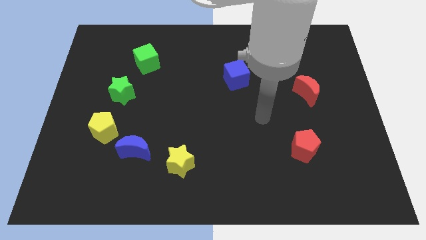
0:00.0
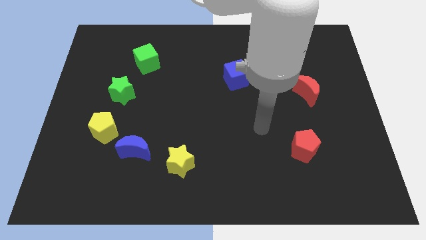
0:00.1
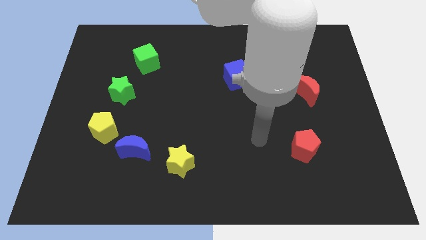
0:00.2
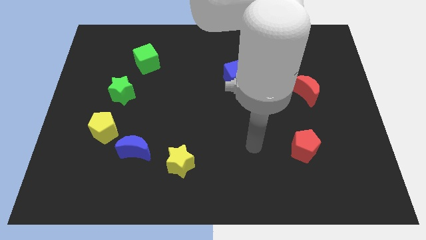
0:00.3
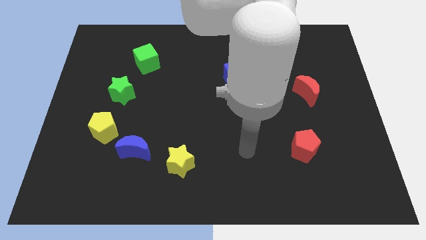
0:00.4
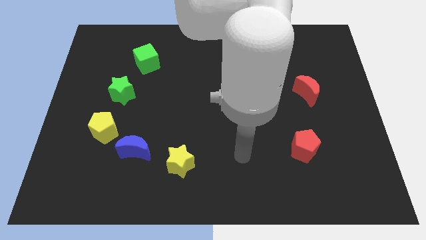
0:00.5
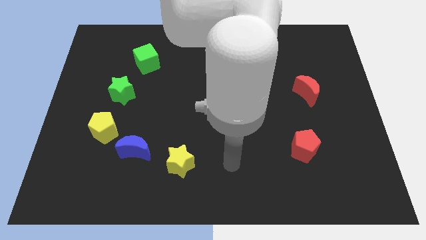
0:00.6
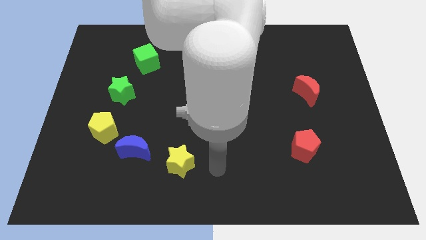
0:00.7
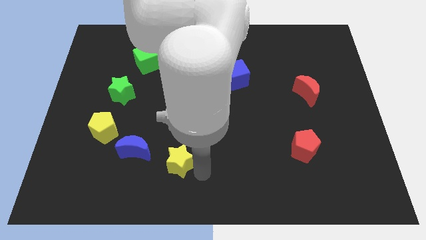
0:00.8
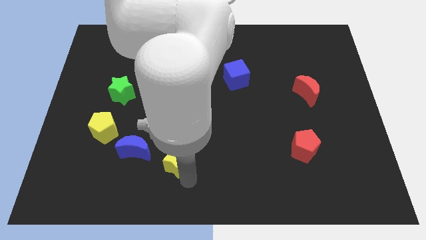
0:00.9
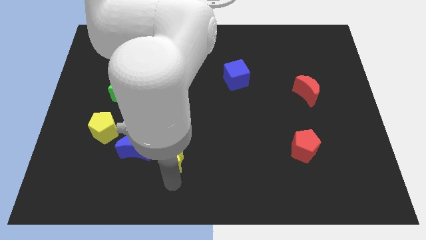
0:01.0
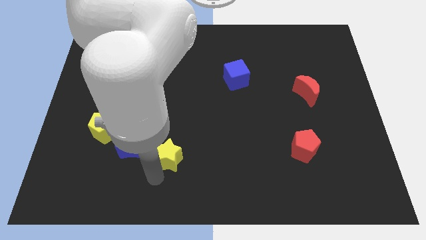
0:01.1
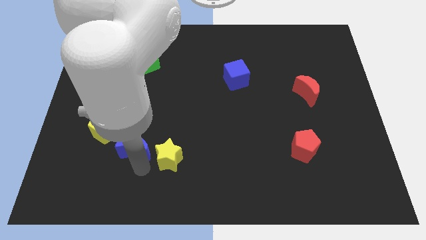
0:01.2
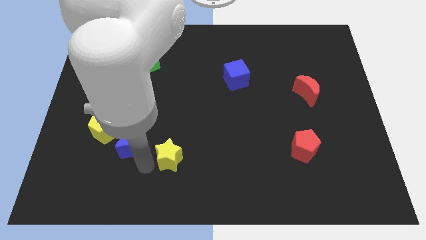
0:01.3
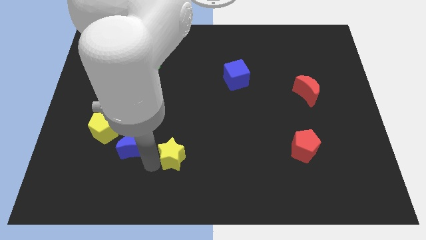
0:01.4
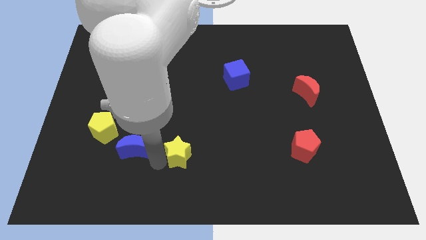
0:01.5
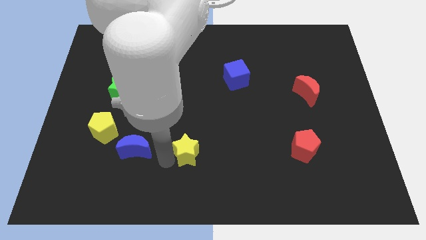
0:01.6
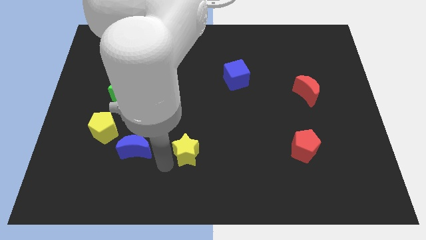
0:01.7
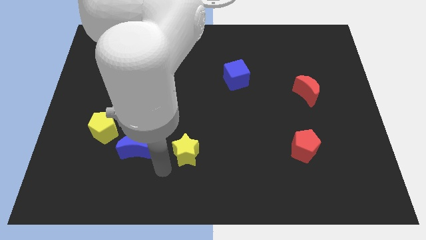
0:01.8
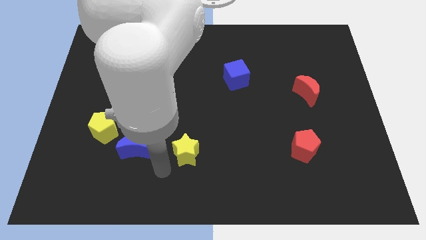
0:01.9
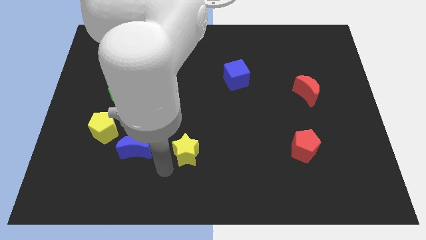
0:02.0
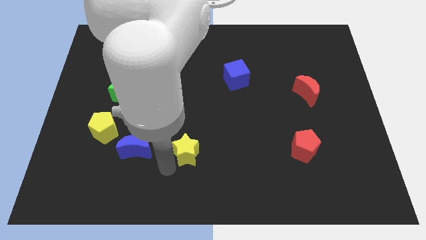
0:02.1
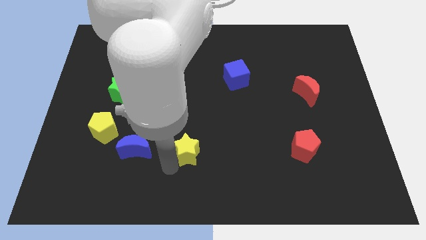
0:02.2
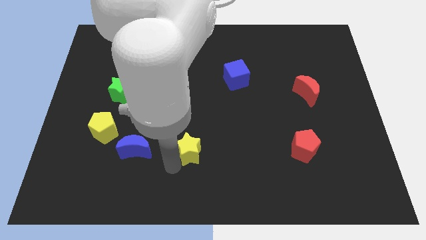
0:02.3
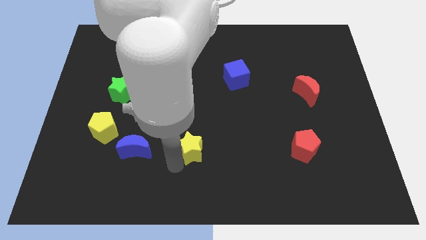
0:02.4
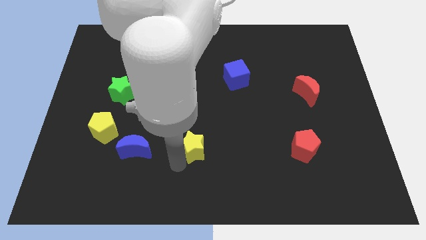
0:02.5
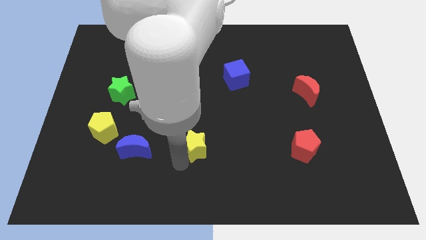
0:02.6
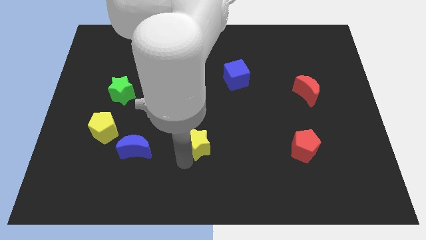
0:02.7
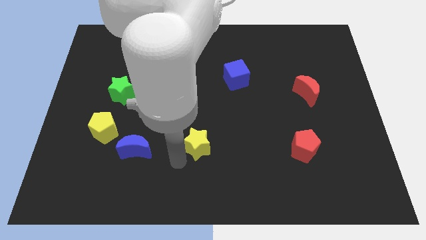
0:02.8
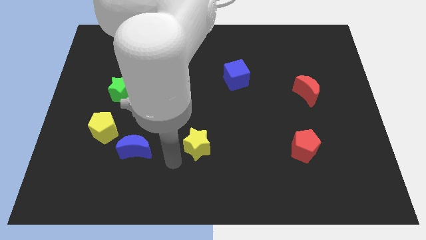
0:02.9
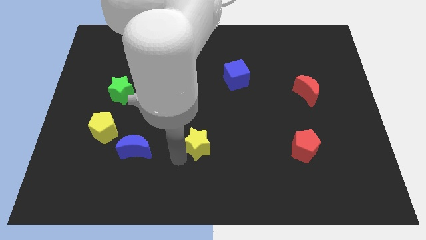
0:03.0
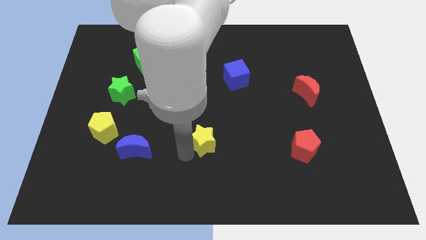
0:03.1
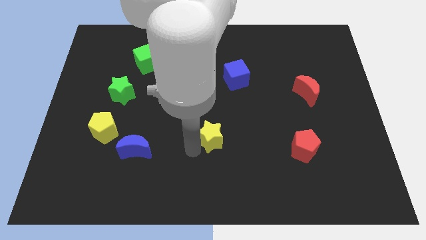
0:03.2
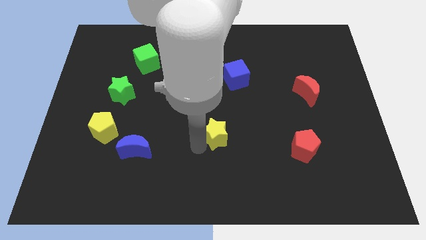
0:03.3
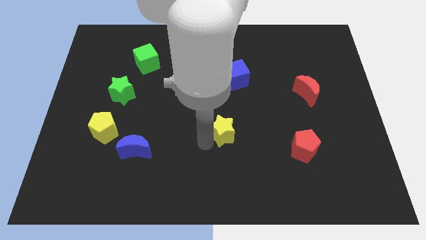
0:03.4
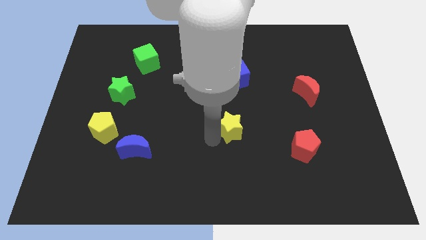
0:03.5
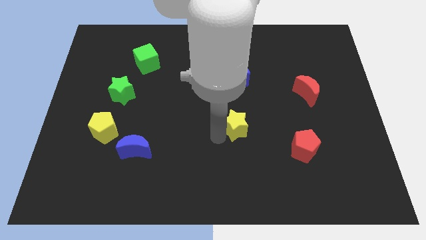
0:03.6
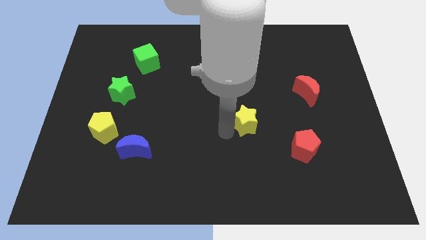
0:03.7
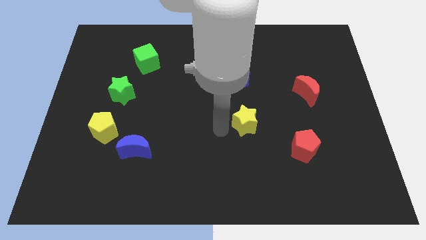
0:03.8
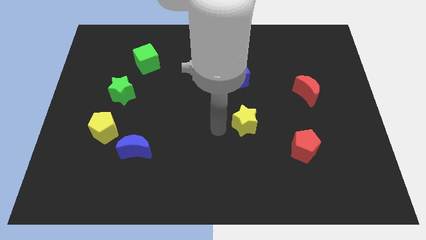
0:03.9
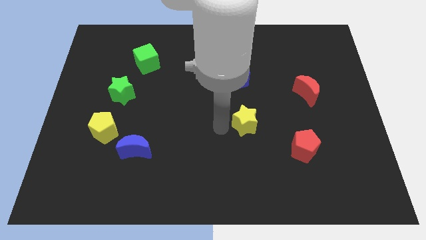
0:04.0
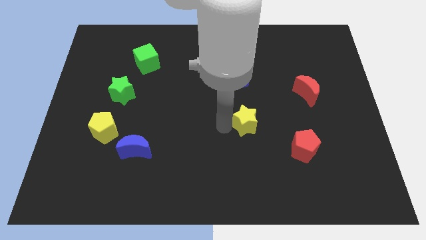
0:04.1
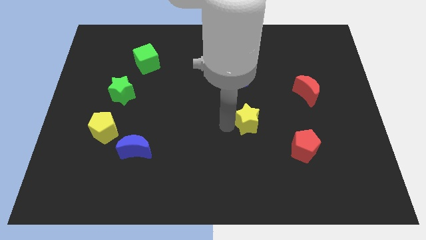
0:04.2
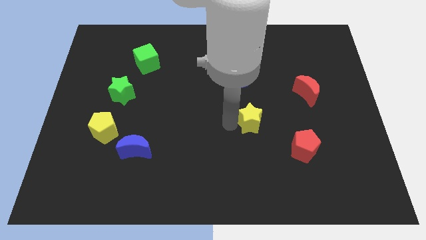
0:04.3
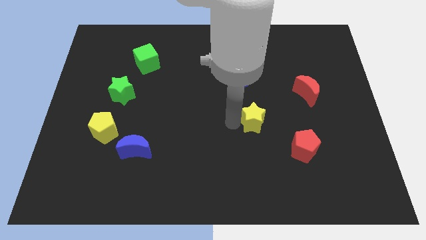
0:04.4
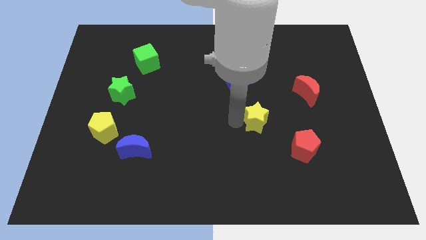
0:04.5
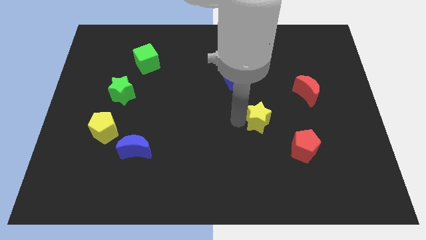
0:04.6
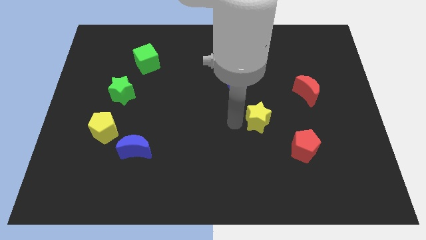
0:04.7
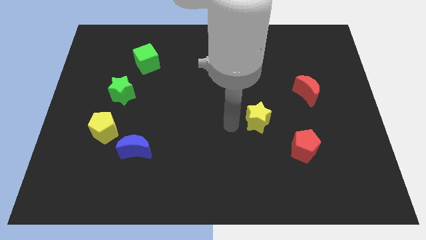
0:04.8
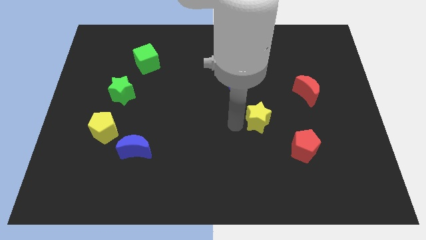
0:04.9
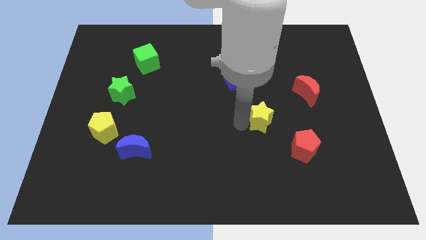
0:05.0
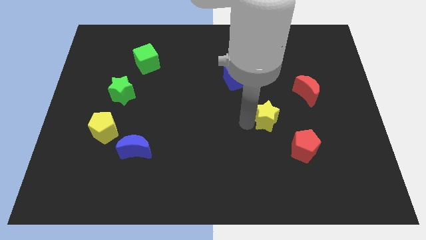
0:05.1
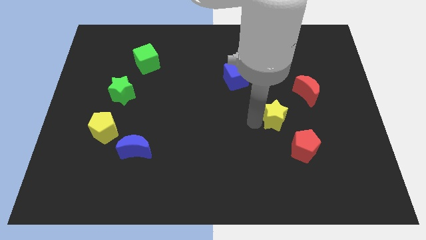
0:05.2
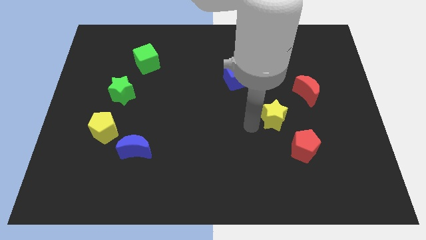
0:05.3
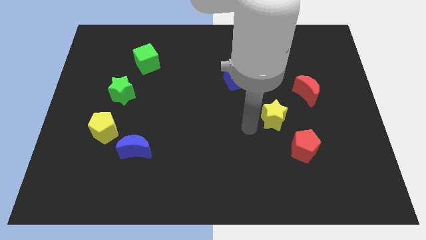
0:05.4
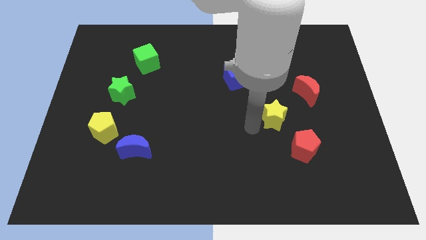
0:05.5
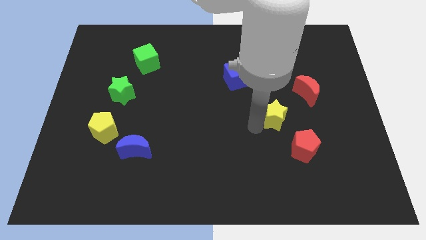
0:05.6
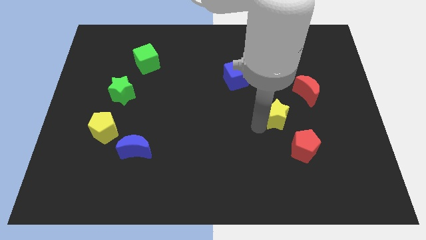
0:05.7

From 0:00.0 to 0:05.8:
move the yellow star to the top side of the red pentagon
